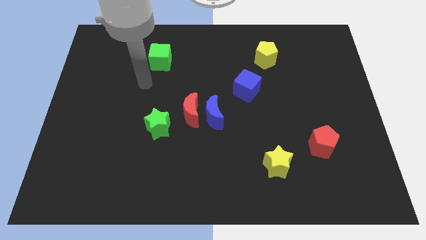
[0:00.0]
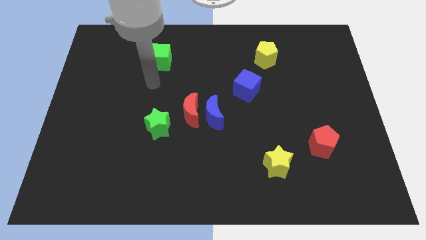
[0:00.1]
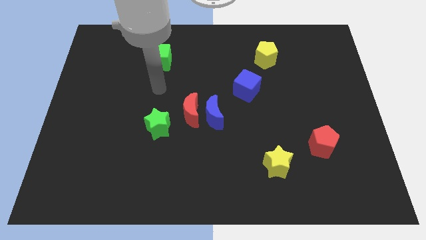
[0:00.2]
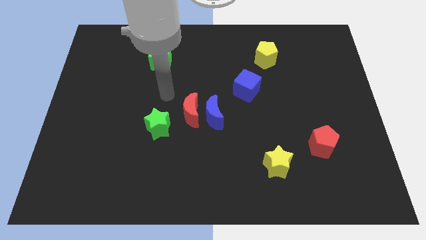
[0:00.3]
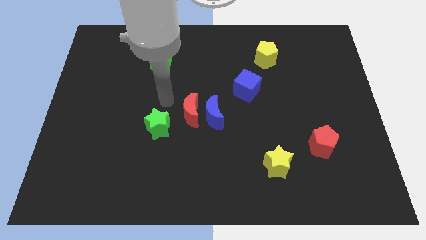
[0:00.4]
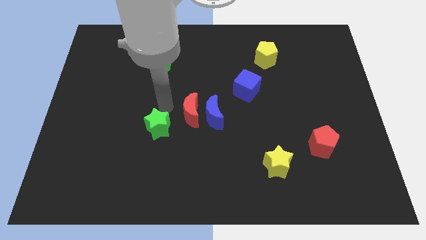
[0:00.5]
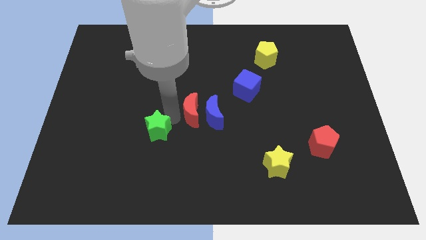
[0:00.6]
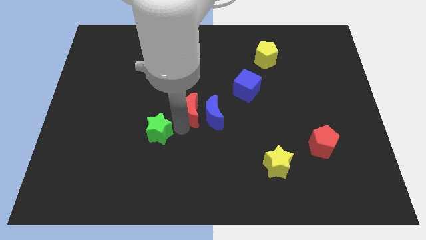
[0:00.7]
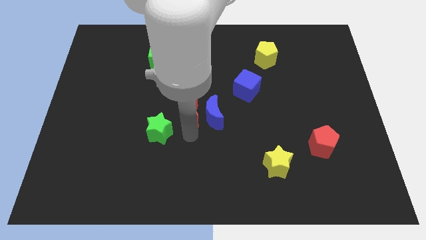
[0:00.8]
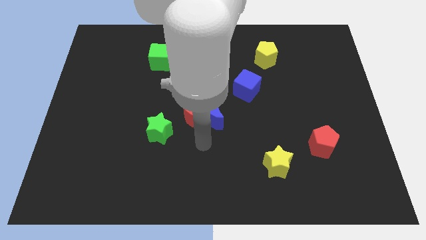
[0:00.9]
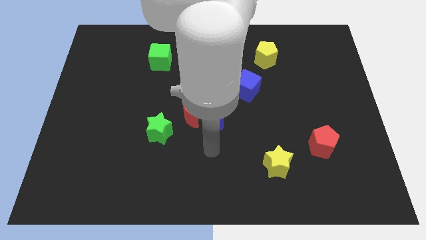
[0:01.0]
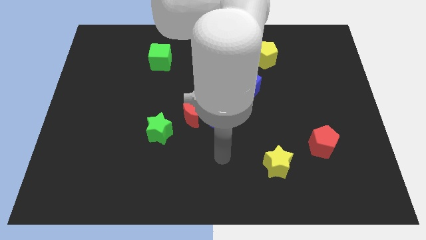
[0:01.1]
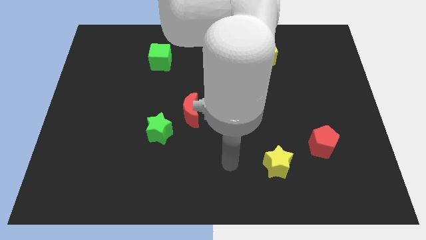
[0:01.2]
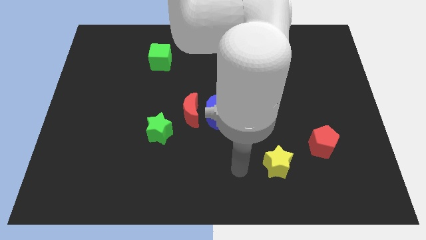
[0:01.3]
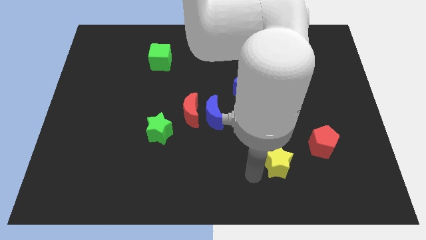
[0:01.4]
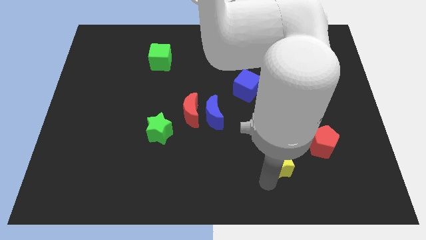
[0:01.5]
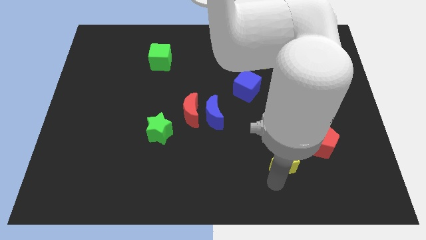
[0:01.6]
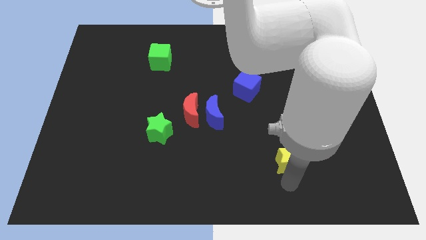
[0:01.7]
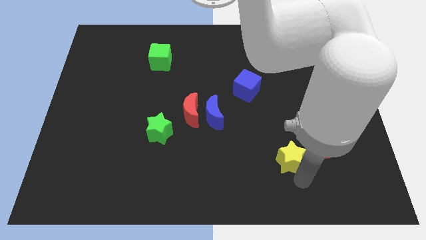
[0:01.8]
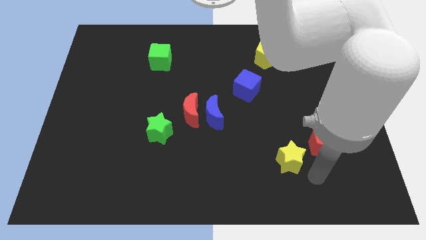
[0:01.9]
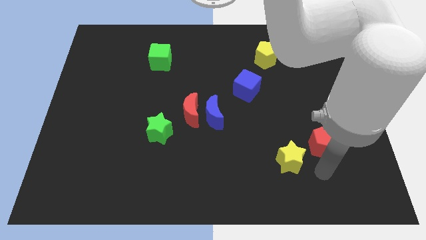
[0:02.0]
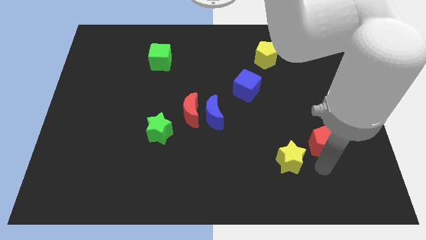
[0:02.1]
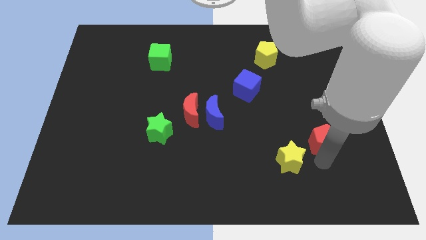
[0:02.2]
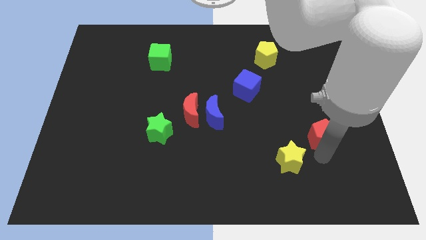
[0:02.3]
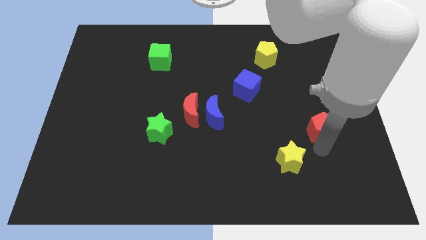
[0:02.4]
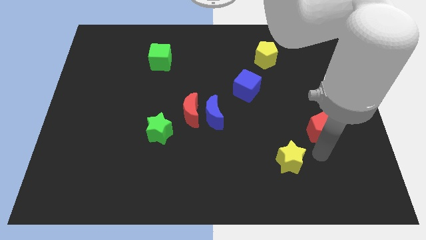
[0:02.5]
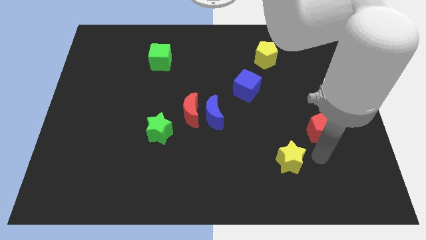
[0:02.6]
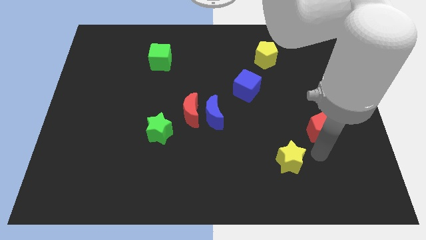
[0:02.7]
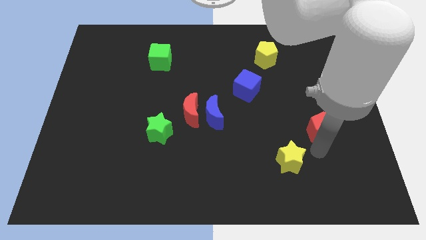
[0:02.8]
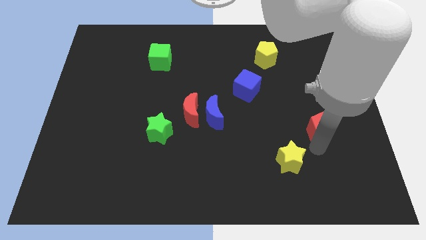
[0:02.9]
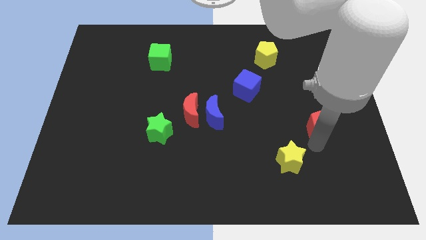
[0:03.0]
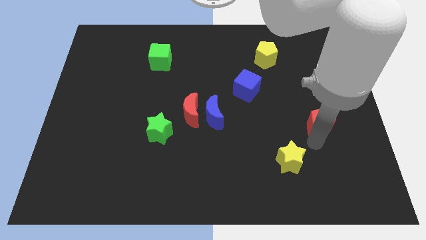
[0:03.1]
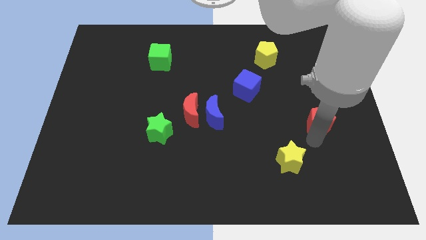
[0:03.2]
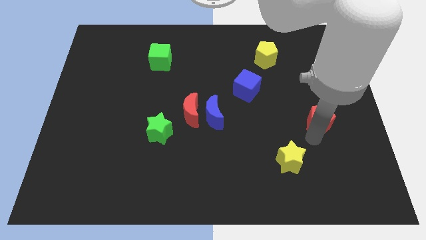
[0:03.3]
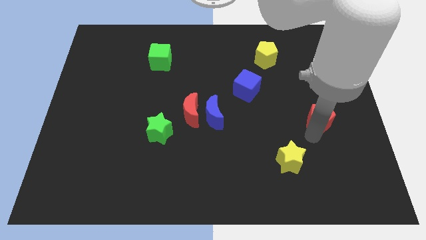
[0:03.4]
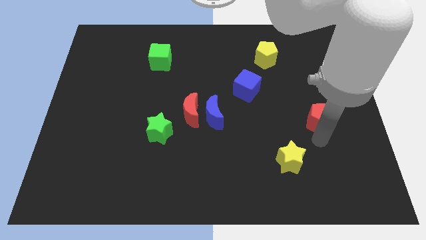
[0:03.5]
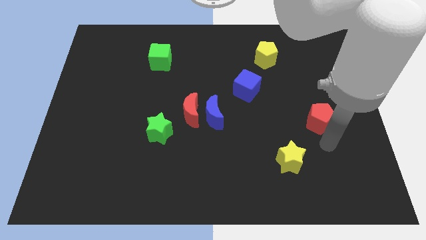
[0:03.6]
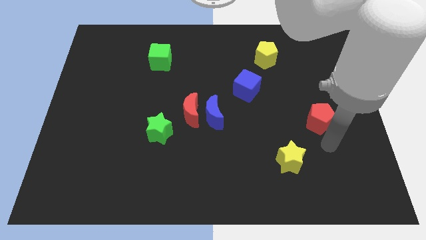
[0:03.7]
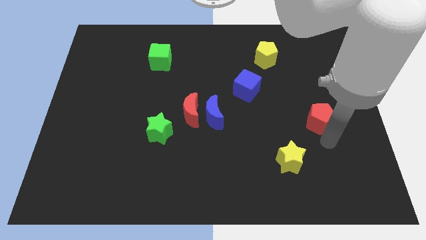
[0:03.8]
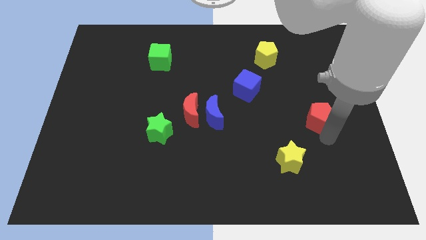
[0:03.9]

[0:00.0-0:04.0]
slide the red pentagon up a little

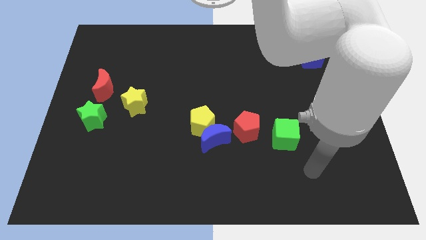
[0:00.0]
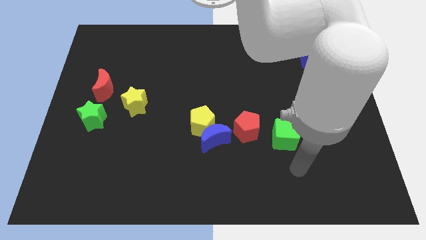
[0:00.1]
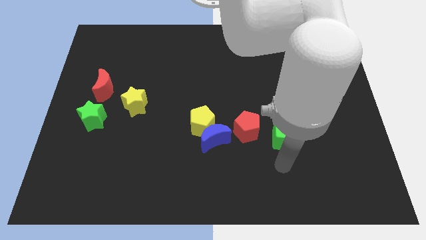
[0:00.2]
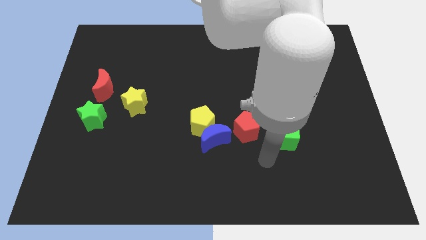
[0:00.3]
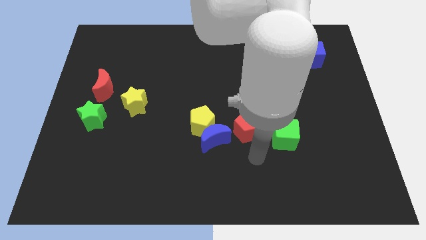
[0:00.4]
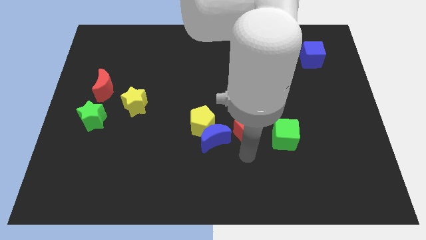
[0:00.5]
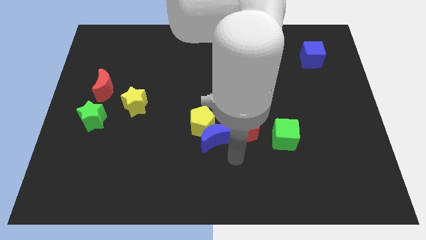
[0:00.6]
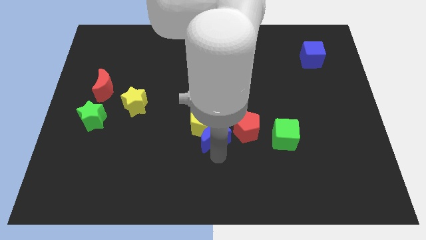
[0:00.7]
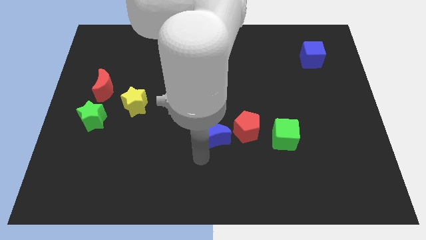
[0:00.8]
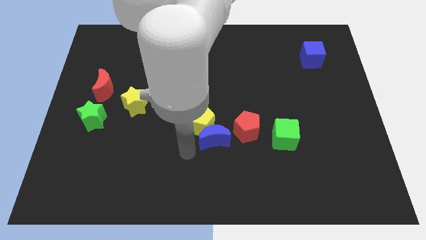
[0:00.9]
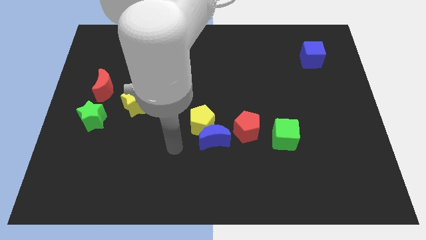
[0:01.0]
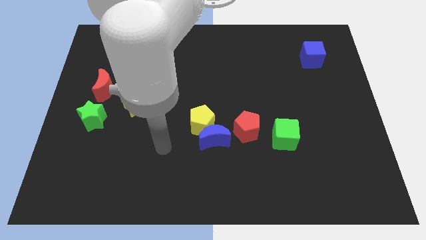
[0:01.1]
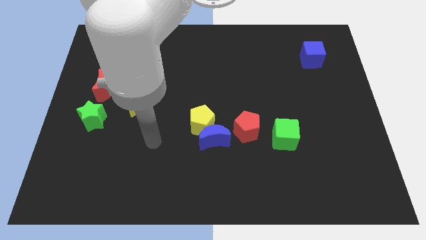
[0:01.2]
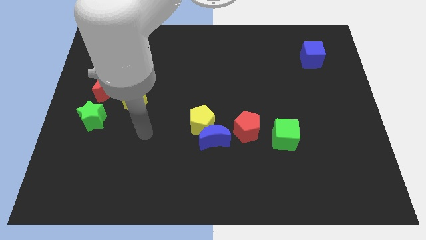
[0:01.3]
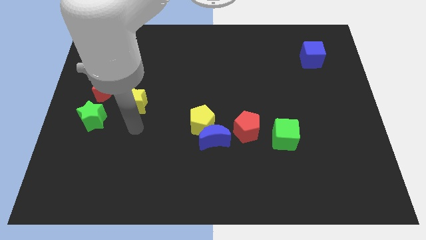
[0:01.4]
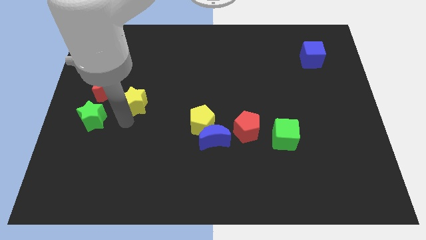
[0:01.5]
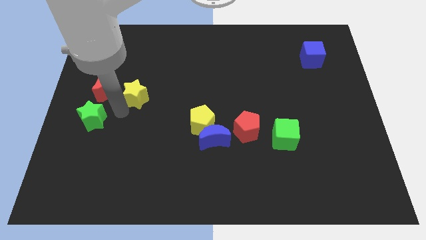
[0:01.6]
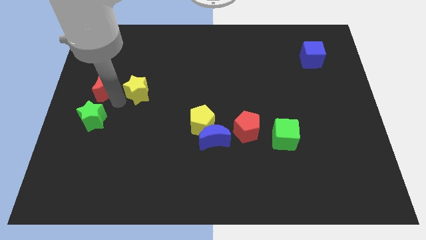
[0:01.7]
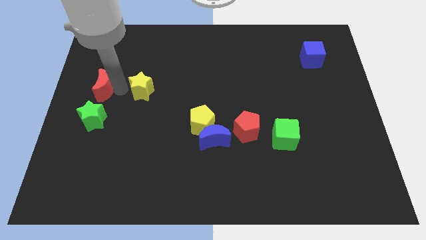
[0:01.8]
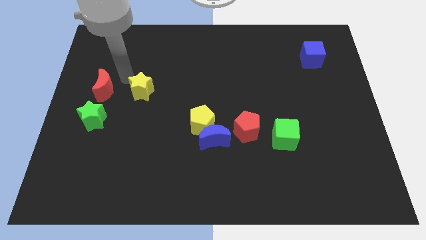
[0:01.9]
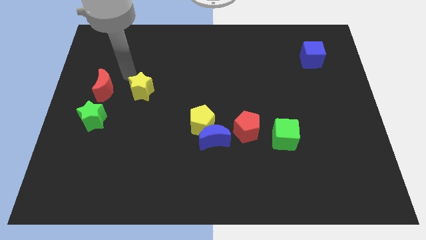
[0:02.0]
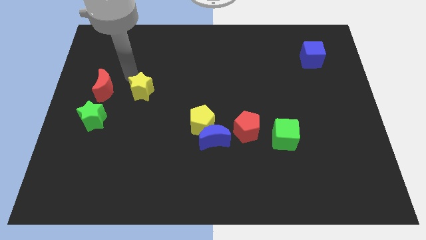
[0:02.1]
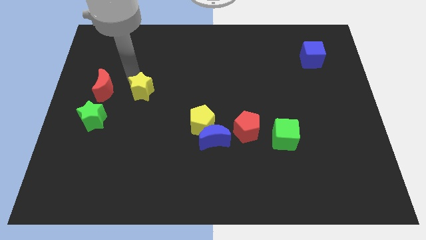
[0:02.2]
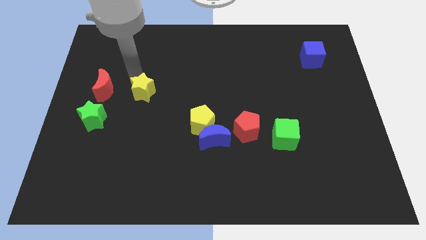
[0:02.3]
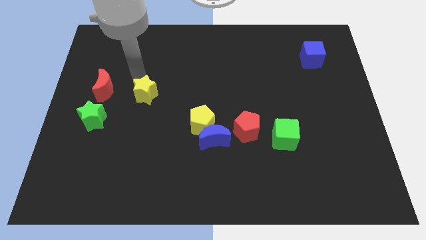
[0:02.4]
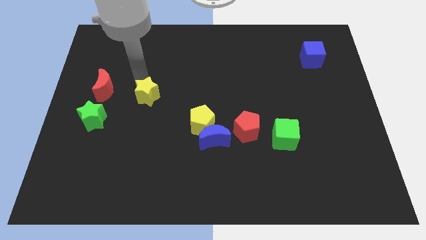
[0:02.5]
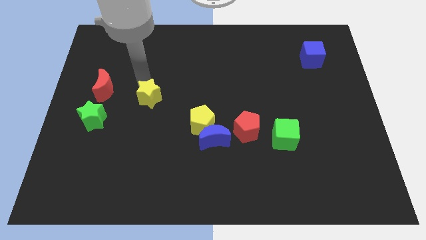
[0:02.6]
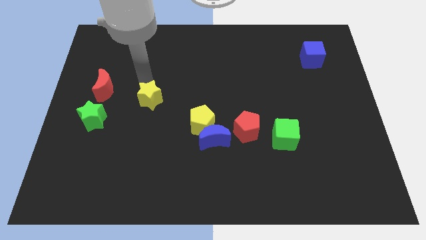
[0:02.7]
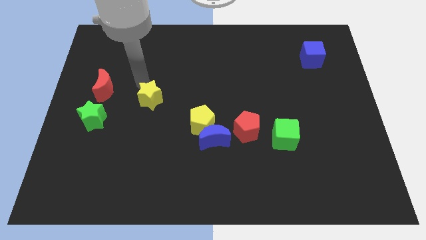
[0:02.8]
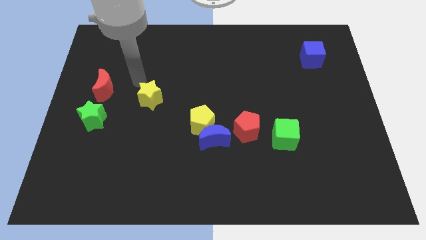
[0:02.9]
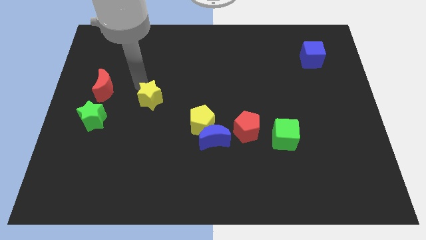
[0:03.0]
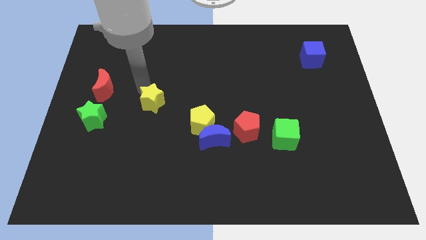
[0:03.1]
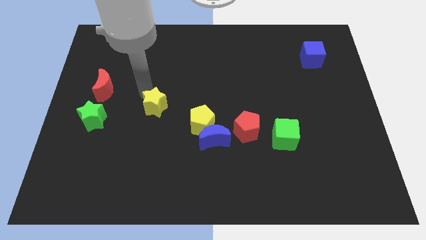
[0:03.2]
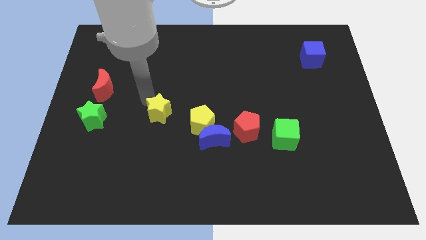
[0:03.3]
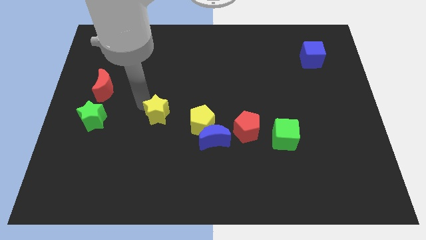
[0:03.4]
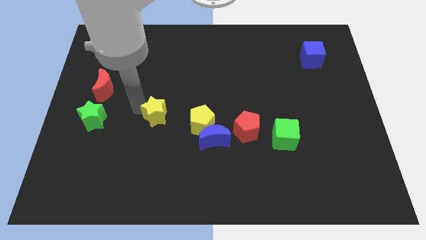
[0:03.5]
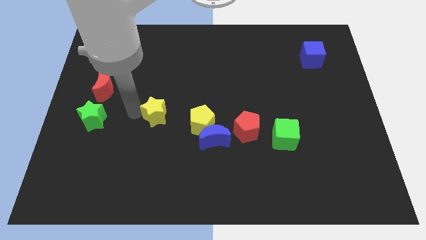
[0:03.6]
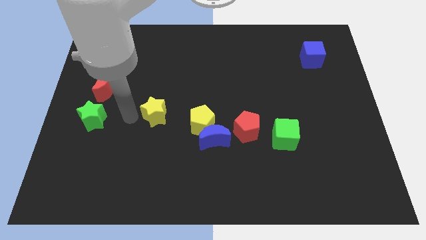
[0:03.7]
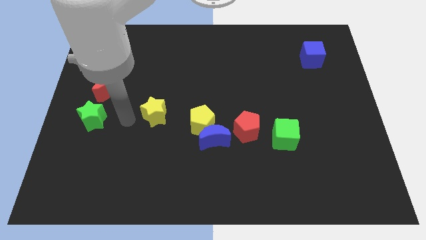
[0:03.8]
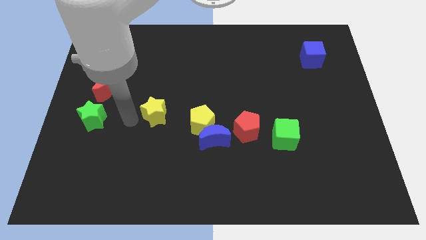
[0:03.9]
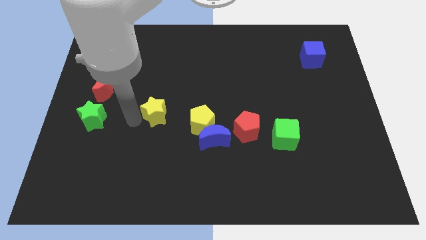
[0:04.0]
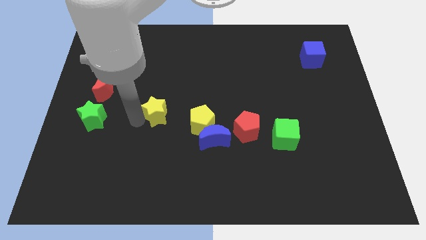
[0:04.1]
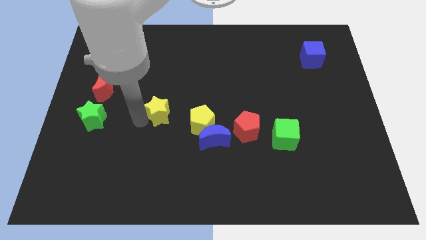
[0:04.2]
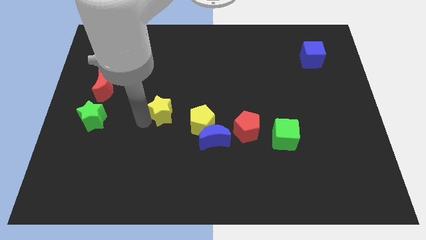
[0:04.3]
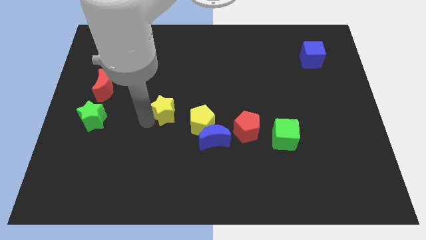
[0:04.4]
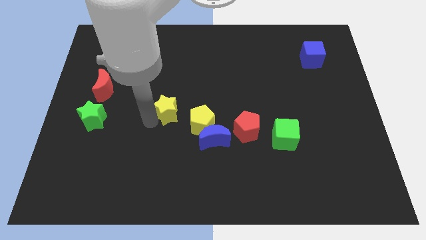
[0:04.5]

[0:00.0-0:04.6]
push the yellow star slightly to the right
